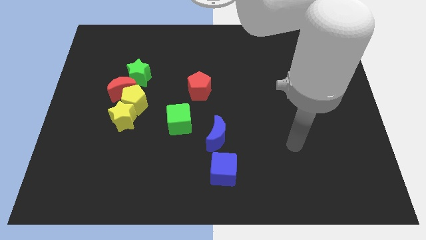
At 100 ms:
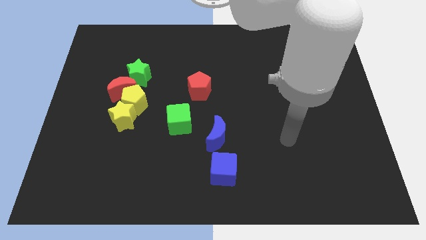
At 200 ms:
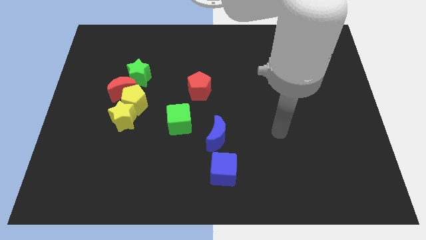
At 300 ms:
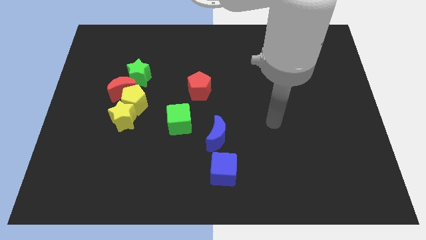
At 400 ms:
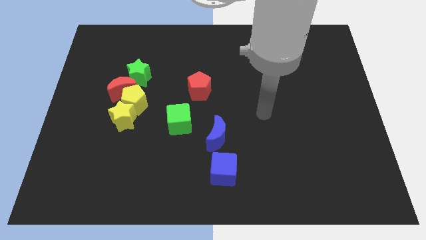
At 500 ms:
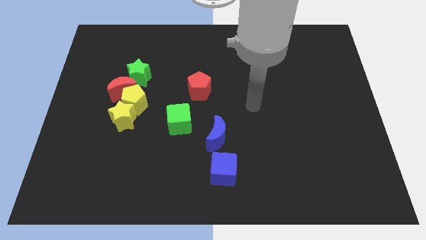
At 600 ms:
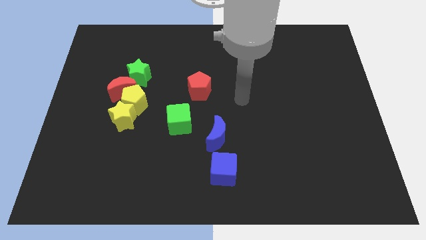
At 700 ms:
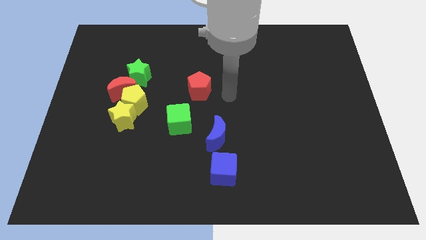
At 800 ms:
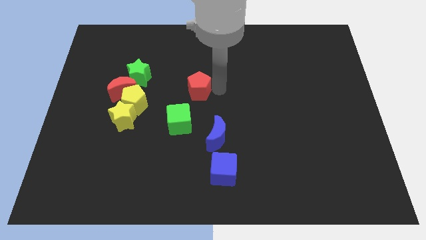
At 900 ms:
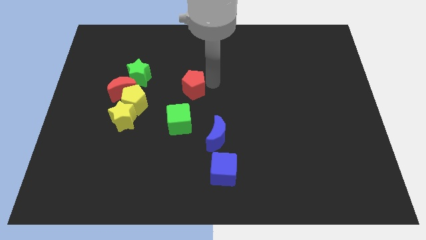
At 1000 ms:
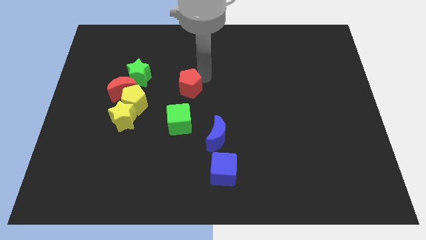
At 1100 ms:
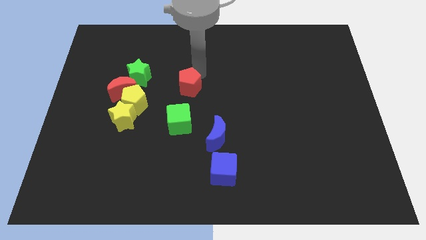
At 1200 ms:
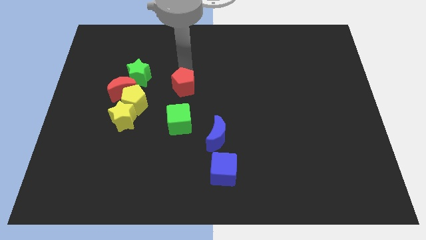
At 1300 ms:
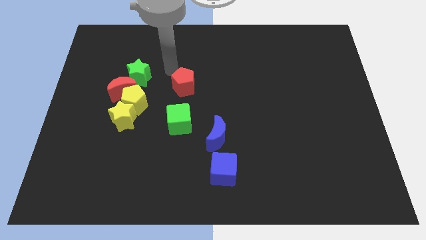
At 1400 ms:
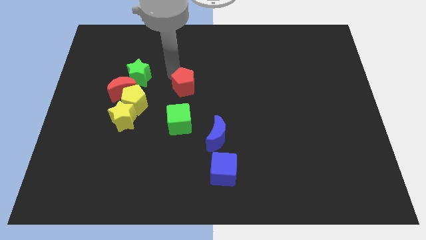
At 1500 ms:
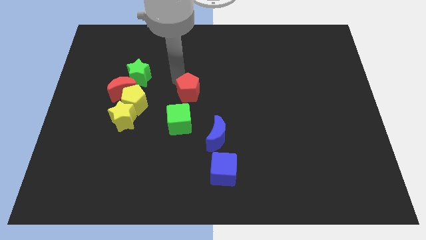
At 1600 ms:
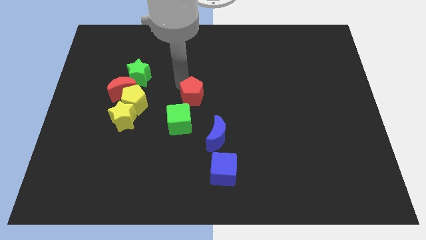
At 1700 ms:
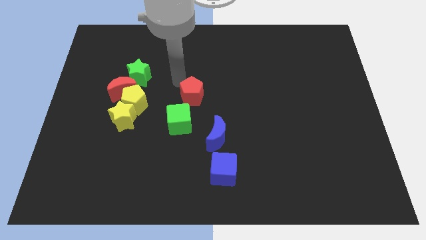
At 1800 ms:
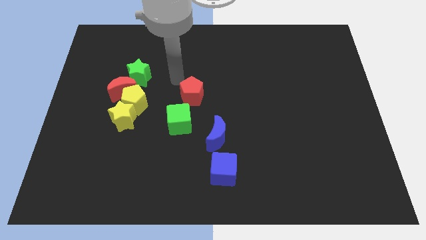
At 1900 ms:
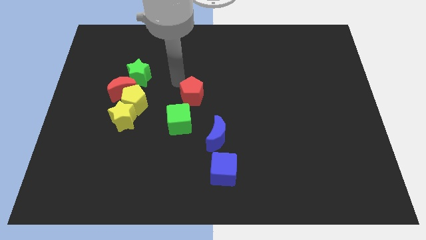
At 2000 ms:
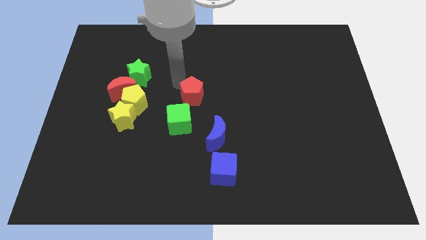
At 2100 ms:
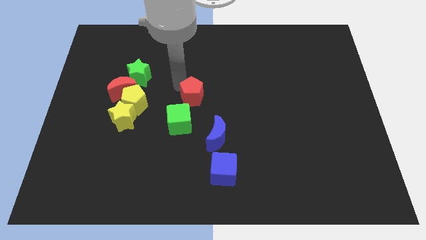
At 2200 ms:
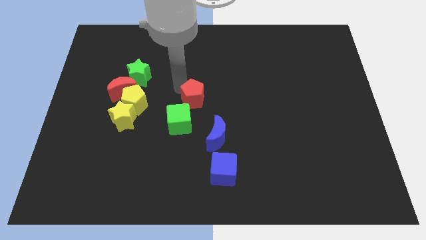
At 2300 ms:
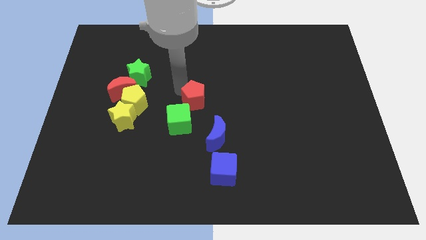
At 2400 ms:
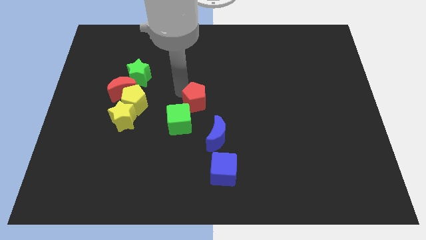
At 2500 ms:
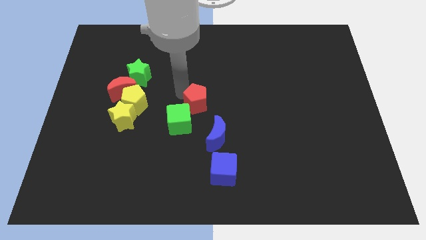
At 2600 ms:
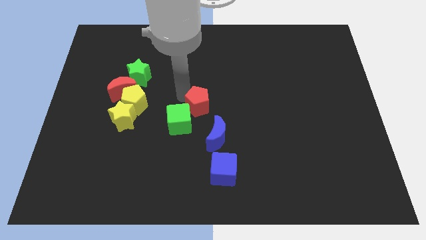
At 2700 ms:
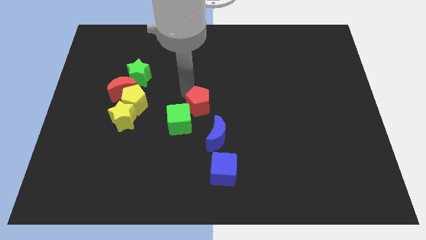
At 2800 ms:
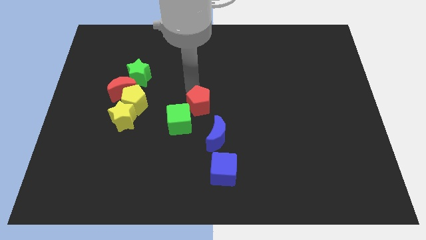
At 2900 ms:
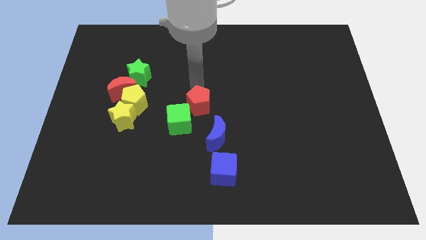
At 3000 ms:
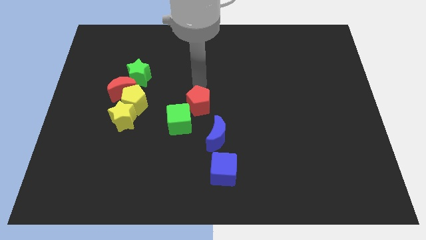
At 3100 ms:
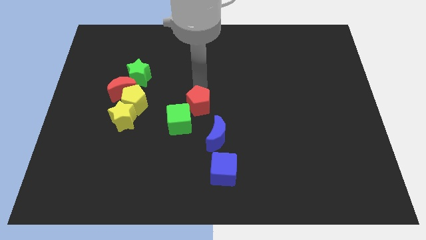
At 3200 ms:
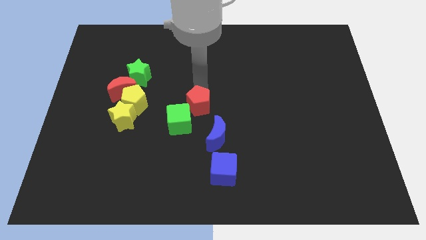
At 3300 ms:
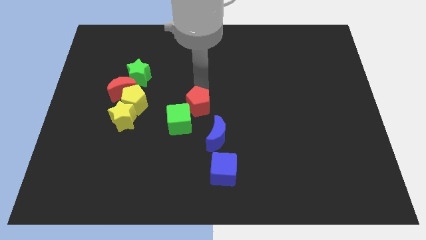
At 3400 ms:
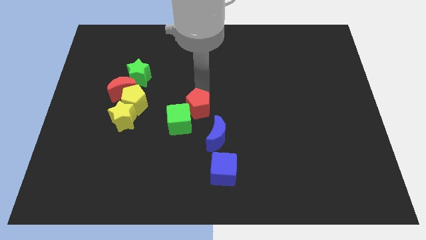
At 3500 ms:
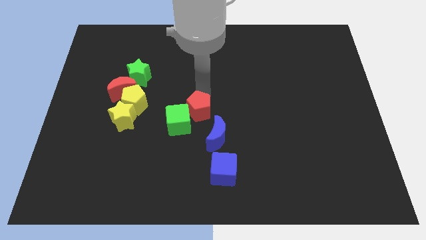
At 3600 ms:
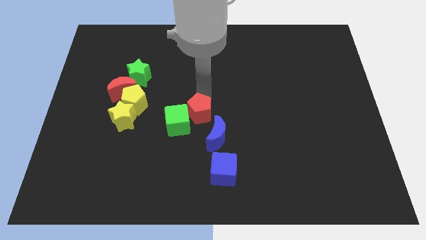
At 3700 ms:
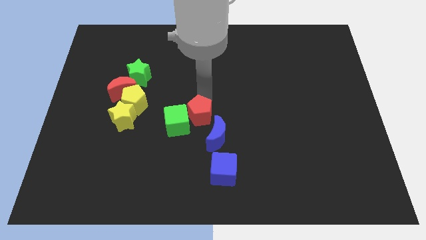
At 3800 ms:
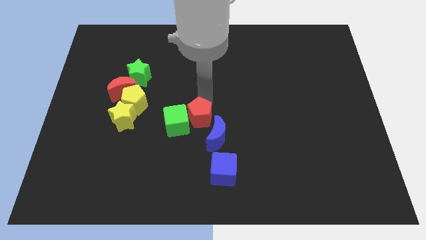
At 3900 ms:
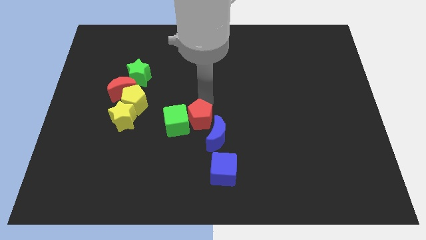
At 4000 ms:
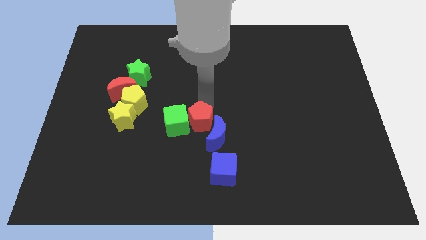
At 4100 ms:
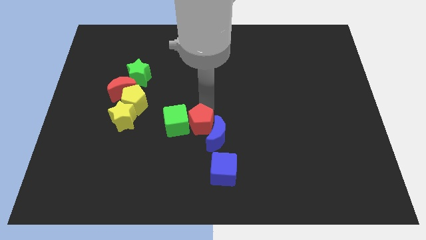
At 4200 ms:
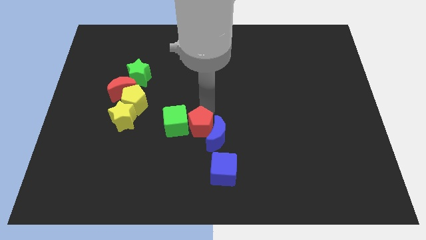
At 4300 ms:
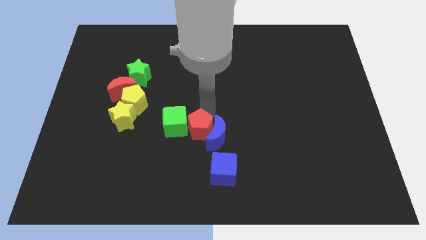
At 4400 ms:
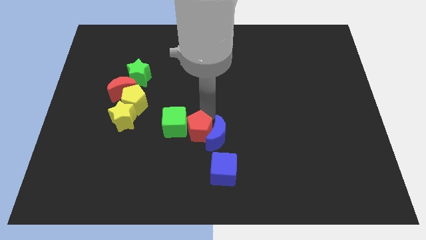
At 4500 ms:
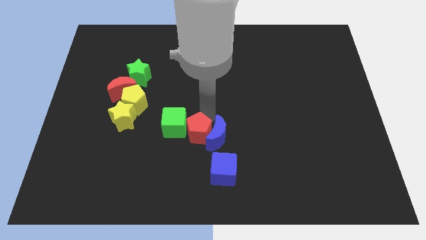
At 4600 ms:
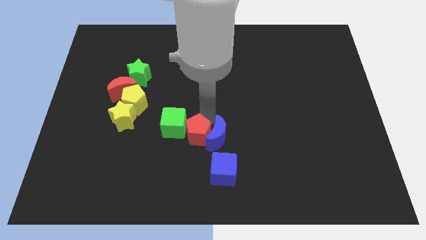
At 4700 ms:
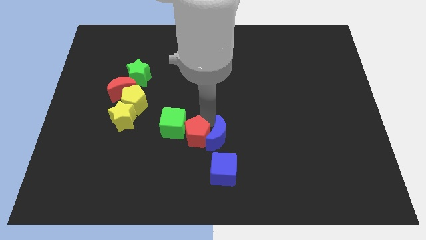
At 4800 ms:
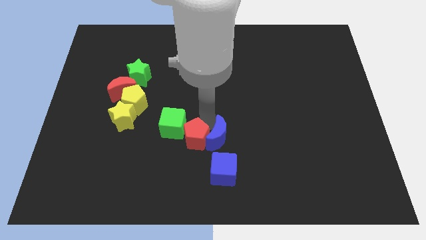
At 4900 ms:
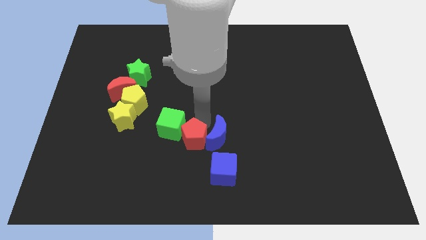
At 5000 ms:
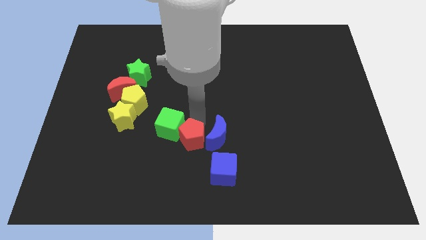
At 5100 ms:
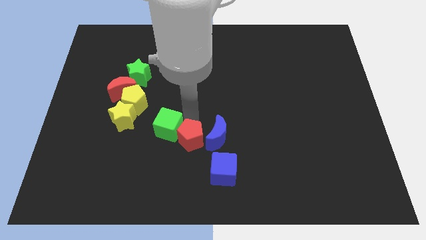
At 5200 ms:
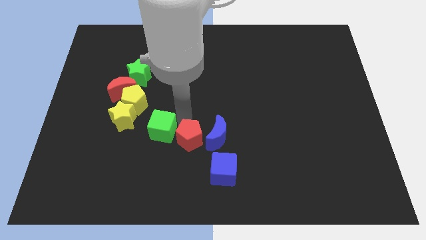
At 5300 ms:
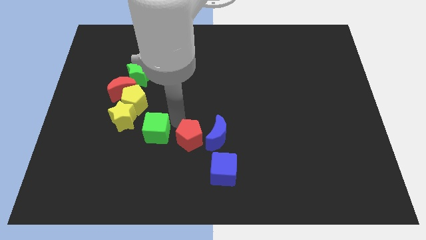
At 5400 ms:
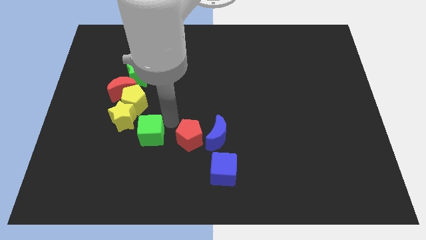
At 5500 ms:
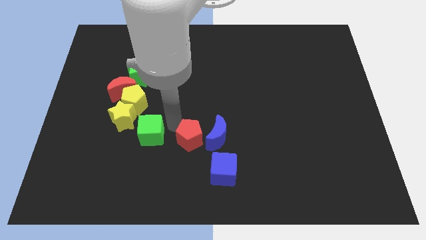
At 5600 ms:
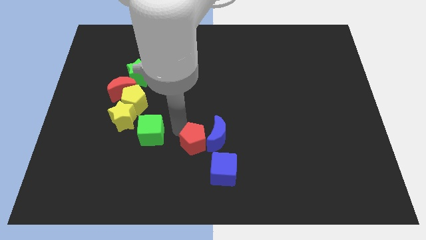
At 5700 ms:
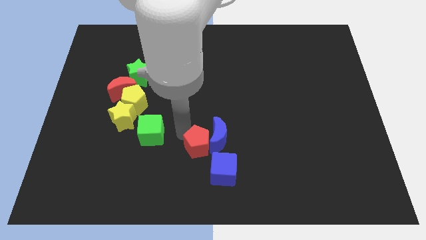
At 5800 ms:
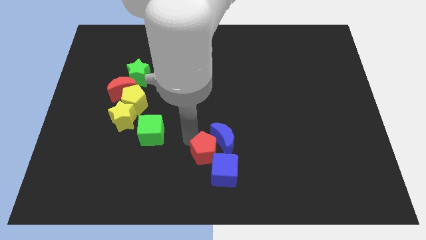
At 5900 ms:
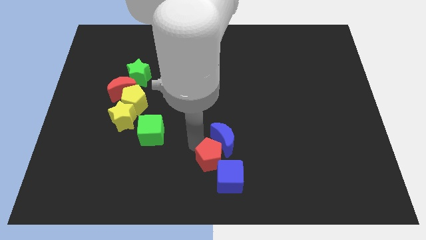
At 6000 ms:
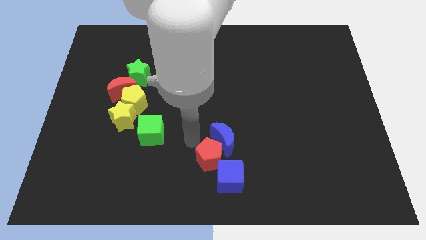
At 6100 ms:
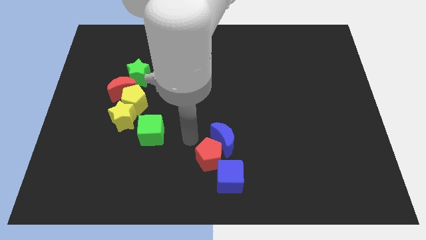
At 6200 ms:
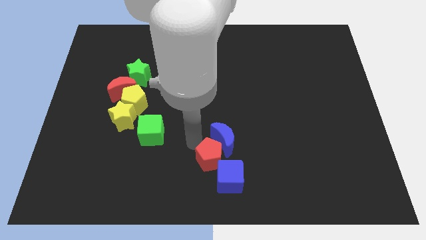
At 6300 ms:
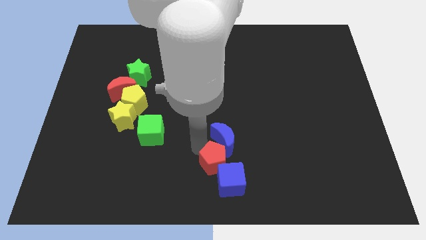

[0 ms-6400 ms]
slide the red pentagon towards the blue cube

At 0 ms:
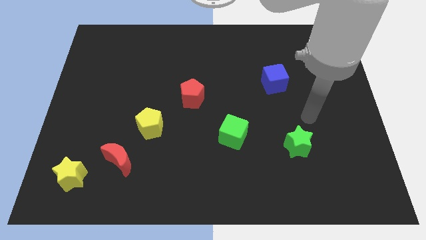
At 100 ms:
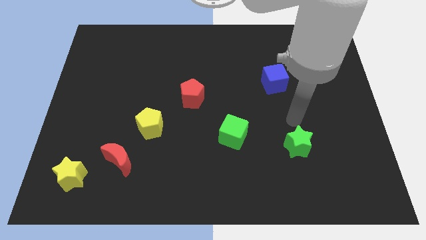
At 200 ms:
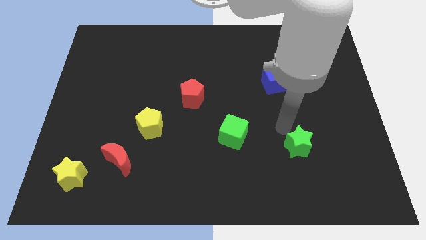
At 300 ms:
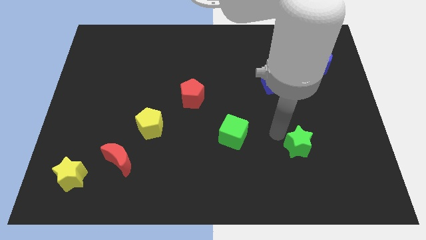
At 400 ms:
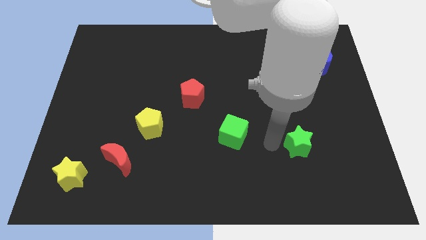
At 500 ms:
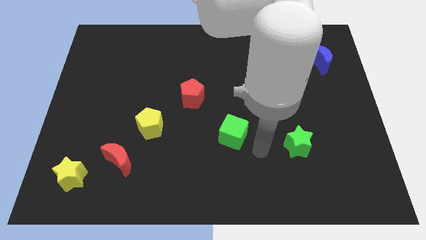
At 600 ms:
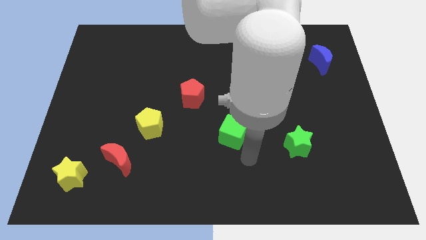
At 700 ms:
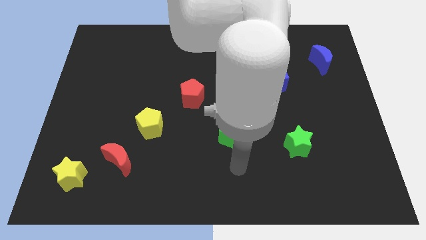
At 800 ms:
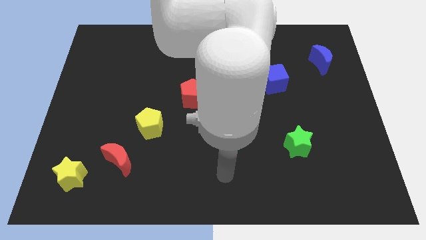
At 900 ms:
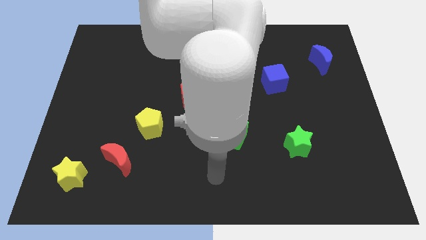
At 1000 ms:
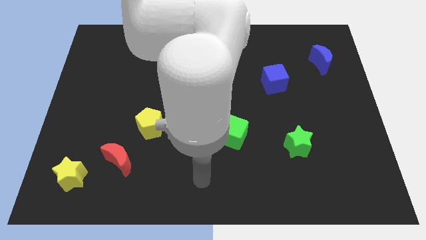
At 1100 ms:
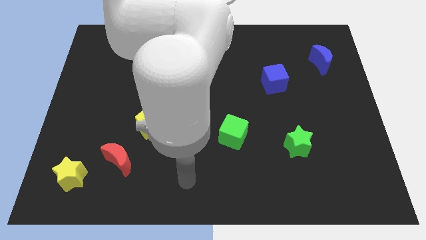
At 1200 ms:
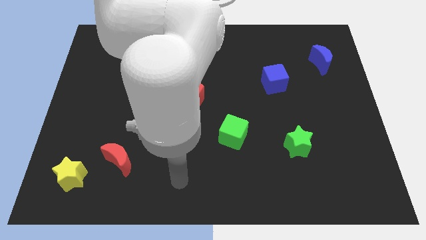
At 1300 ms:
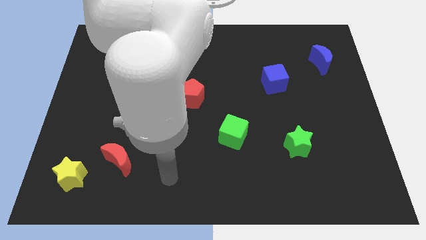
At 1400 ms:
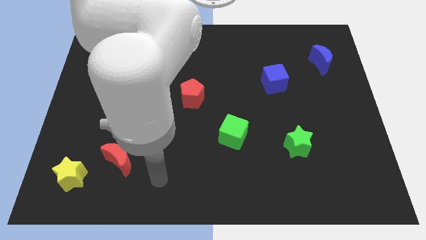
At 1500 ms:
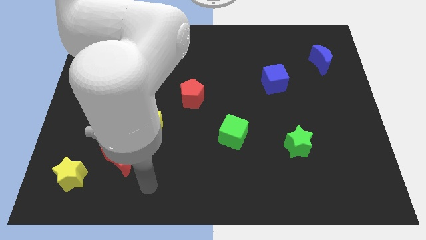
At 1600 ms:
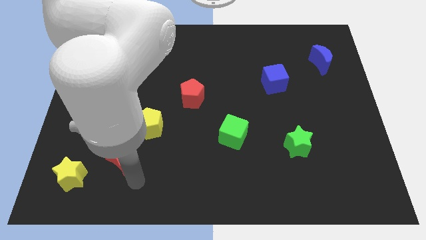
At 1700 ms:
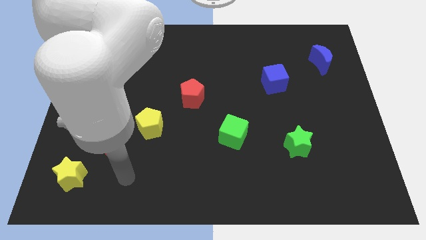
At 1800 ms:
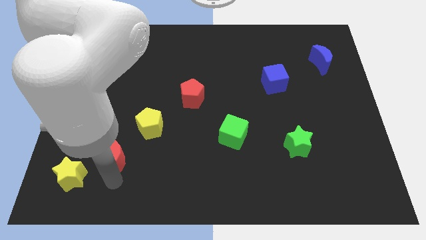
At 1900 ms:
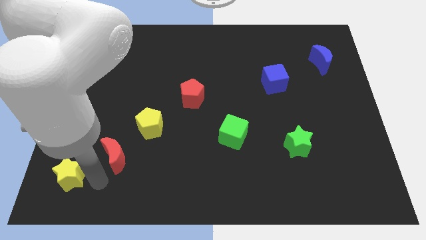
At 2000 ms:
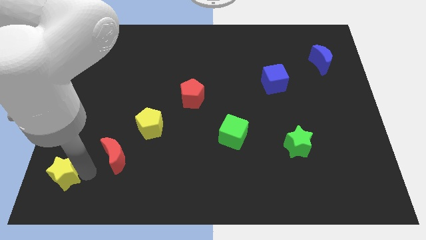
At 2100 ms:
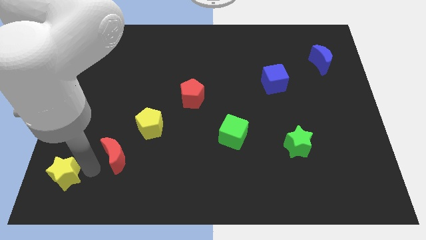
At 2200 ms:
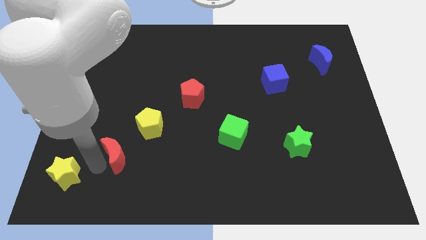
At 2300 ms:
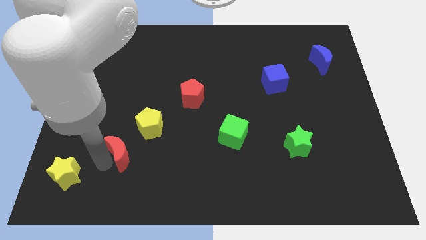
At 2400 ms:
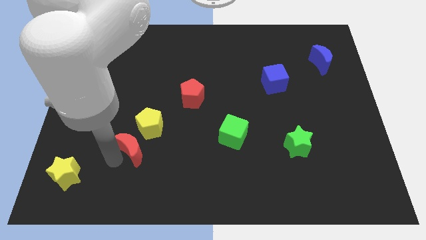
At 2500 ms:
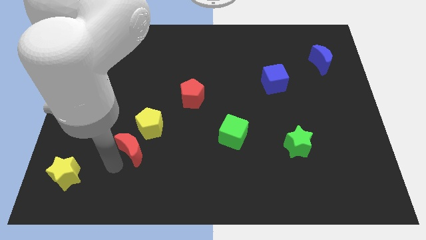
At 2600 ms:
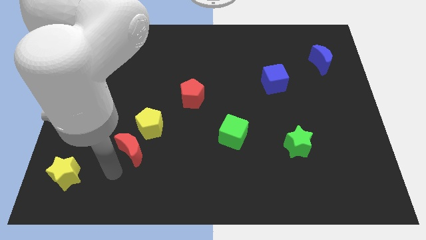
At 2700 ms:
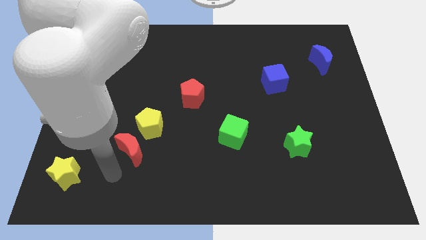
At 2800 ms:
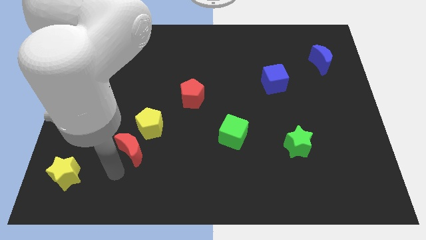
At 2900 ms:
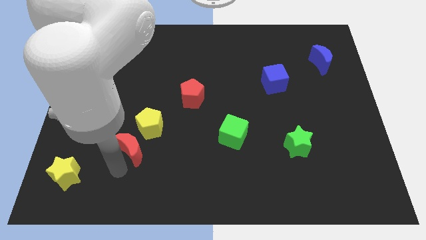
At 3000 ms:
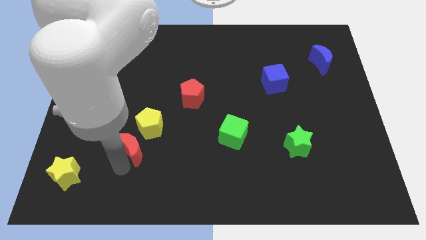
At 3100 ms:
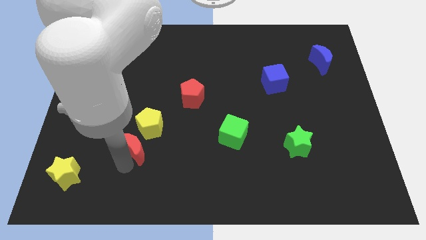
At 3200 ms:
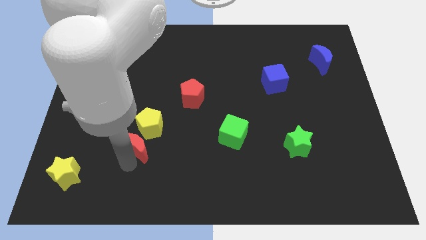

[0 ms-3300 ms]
push the red moon next to the yellow pentagon
